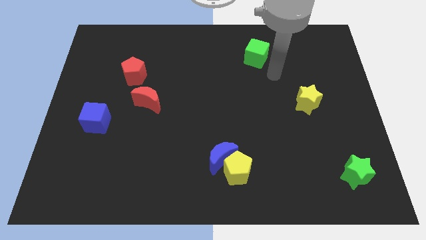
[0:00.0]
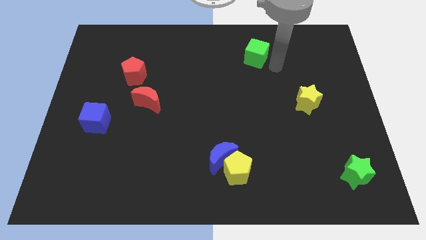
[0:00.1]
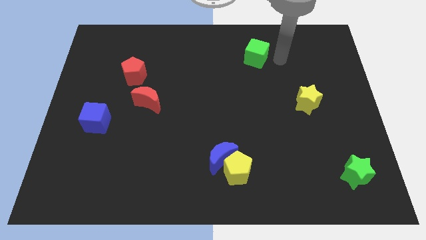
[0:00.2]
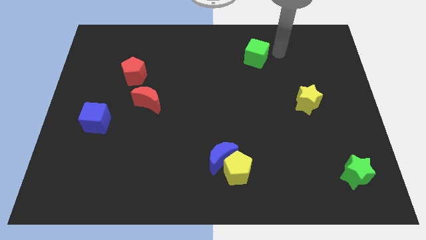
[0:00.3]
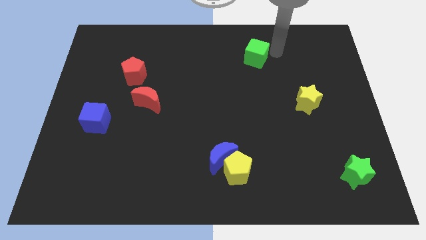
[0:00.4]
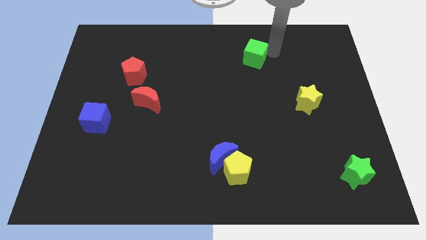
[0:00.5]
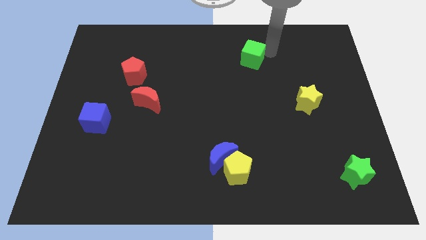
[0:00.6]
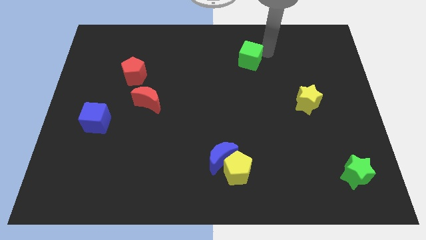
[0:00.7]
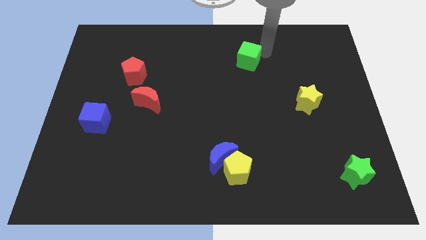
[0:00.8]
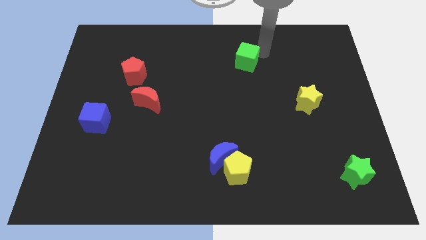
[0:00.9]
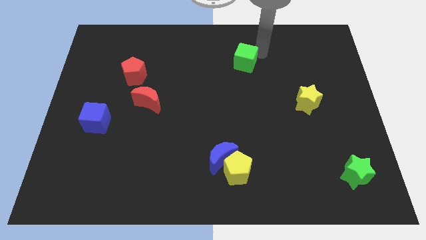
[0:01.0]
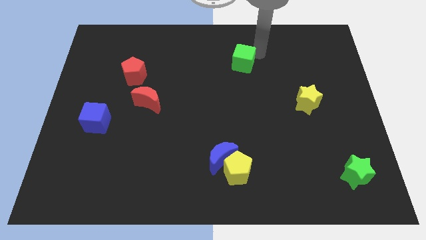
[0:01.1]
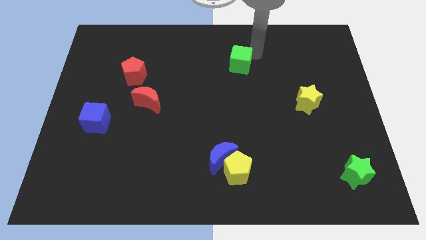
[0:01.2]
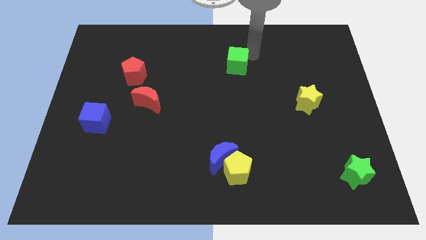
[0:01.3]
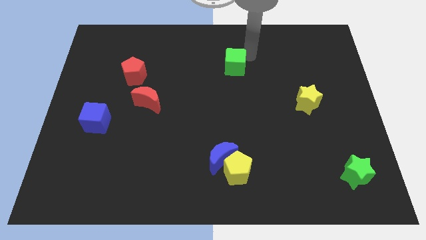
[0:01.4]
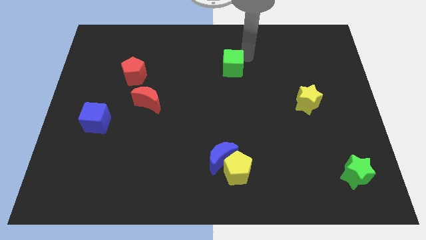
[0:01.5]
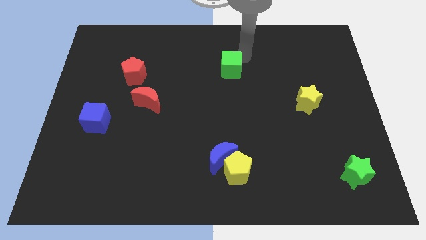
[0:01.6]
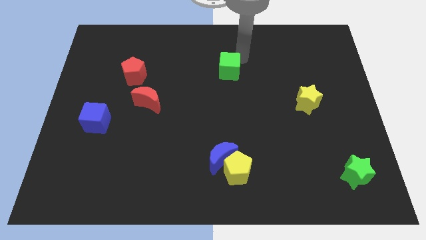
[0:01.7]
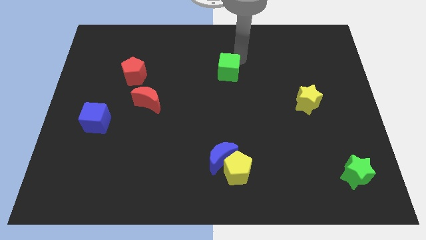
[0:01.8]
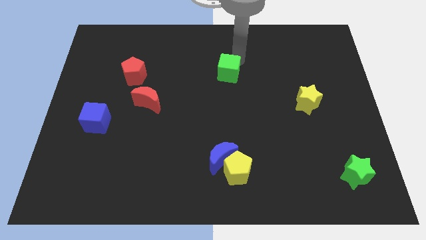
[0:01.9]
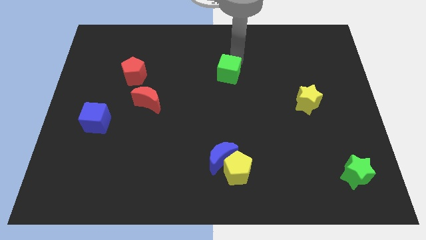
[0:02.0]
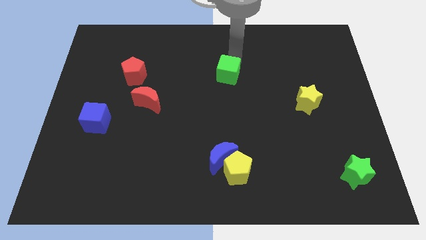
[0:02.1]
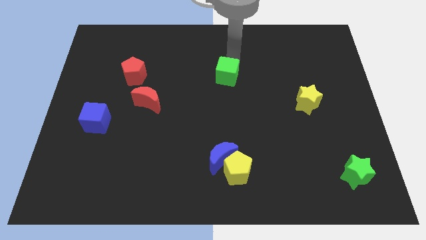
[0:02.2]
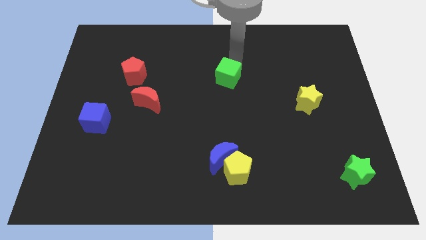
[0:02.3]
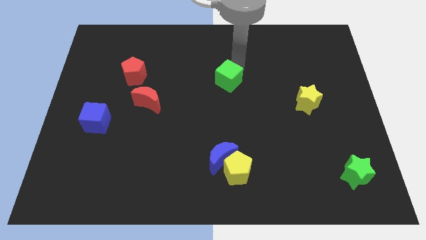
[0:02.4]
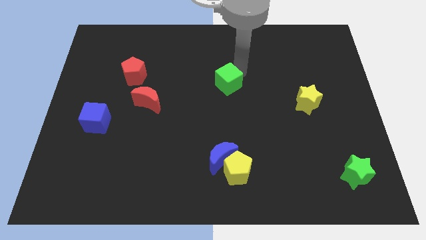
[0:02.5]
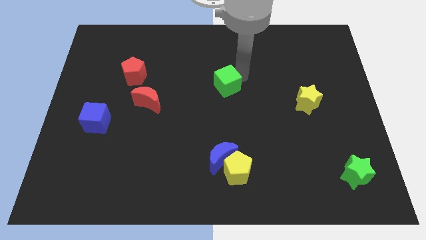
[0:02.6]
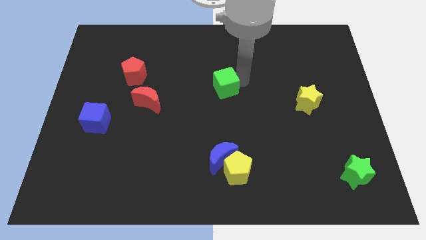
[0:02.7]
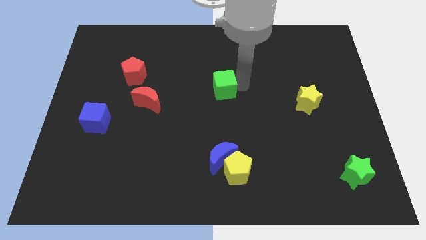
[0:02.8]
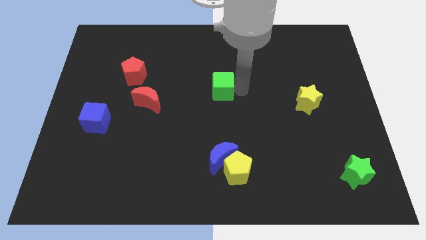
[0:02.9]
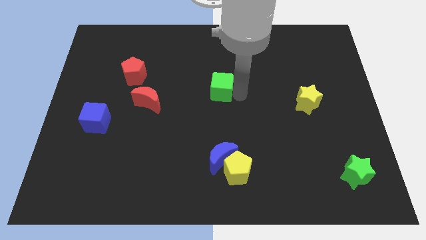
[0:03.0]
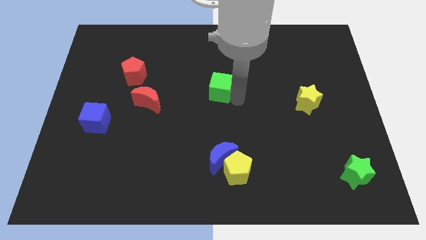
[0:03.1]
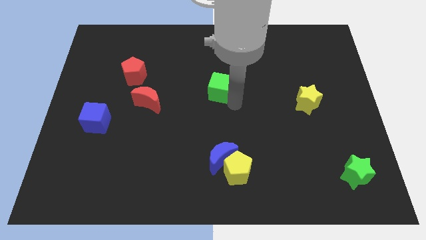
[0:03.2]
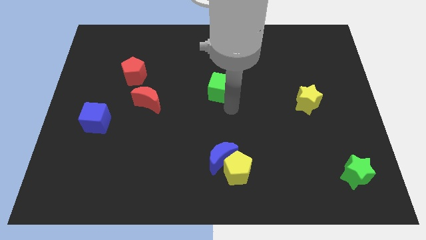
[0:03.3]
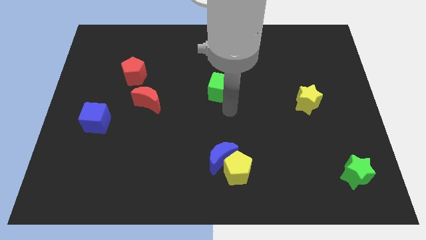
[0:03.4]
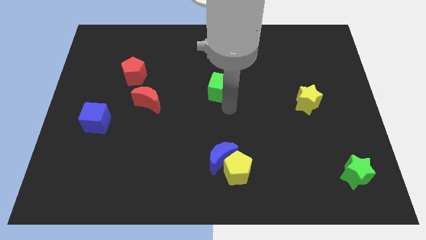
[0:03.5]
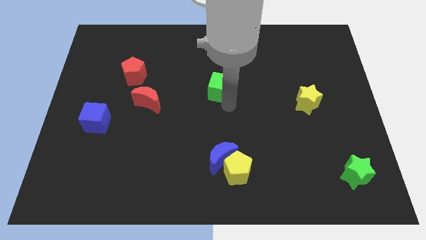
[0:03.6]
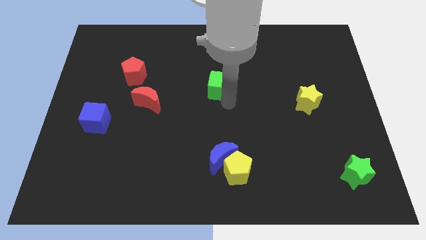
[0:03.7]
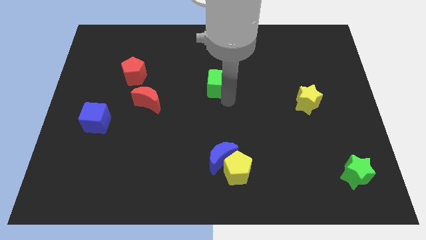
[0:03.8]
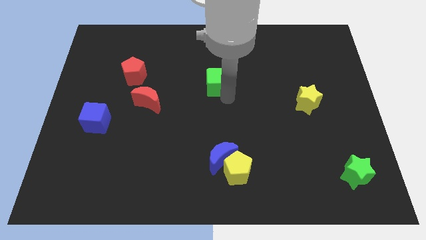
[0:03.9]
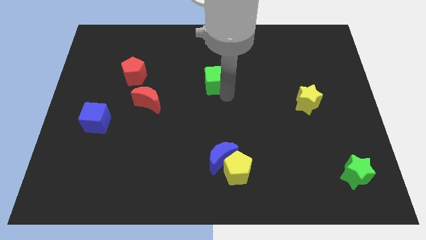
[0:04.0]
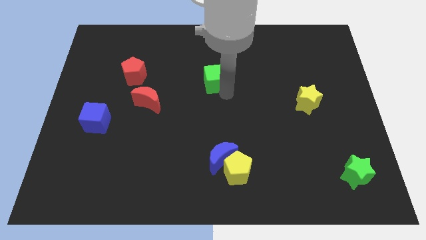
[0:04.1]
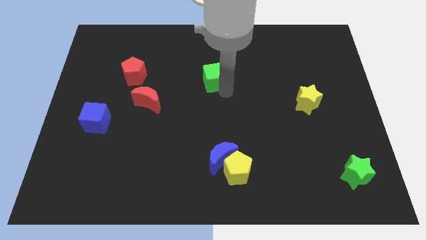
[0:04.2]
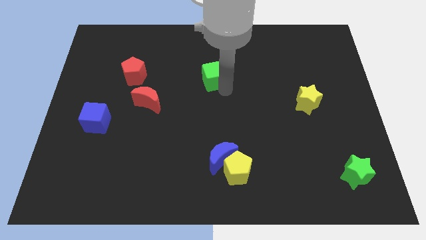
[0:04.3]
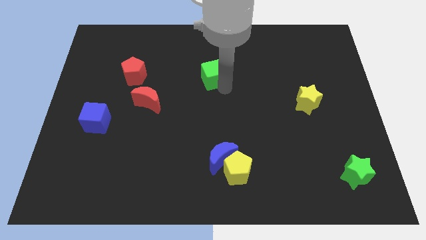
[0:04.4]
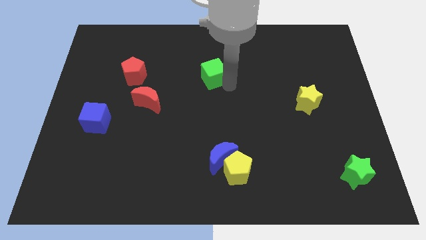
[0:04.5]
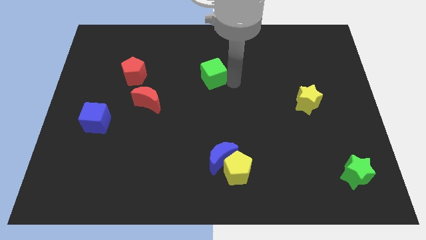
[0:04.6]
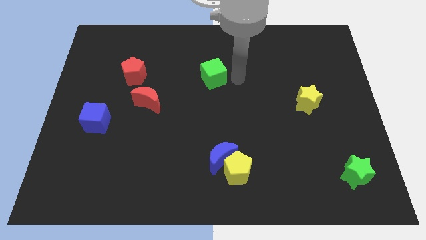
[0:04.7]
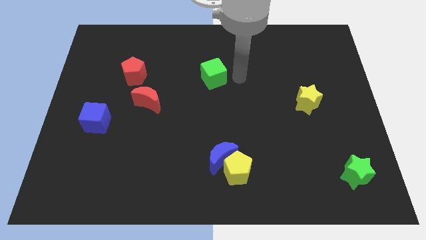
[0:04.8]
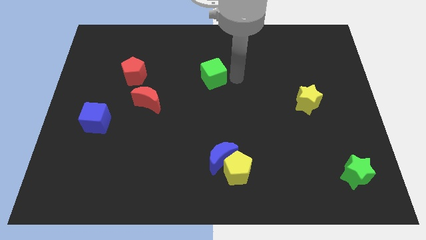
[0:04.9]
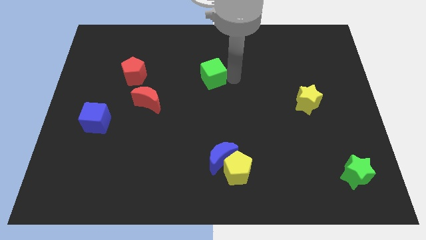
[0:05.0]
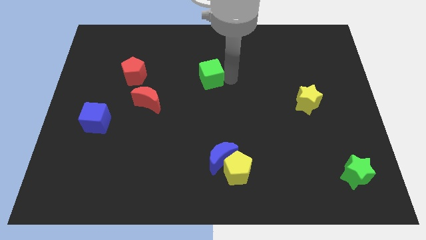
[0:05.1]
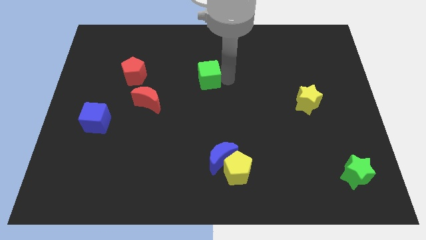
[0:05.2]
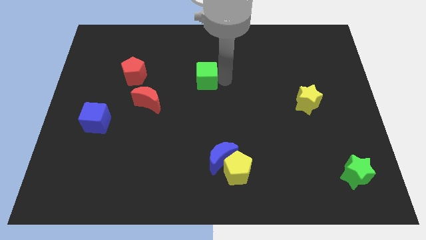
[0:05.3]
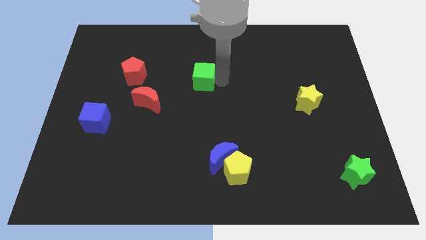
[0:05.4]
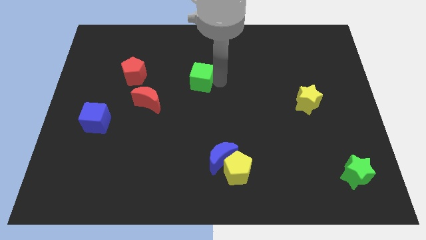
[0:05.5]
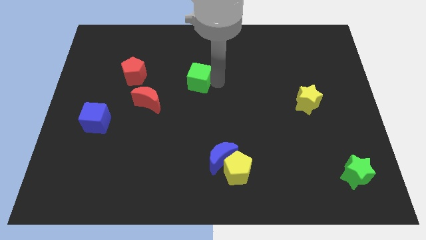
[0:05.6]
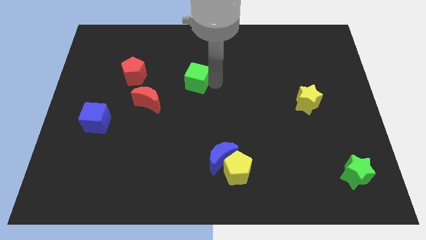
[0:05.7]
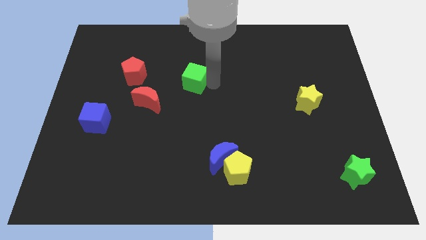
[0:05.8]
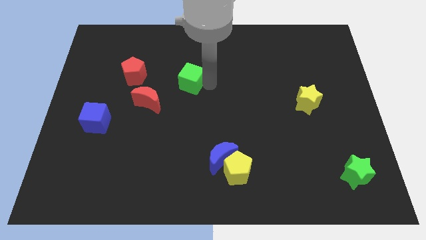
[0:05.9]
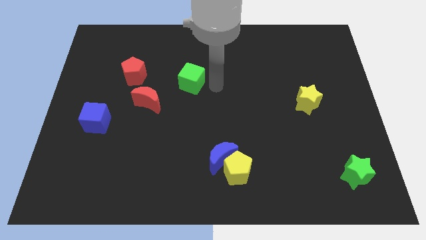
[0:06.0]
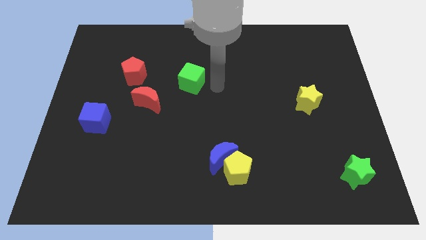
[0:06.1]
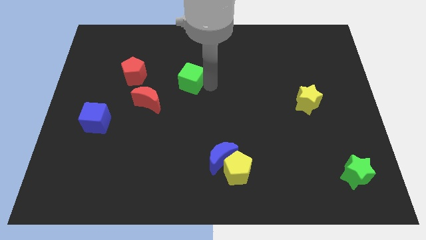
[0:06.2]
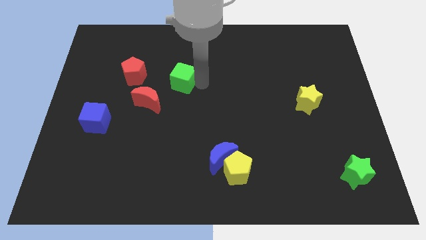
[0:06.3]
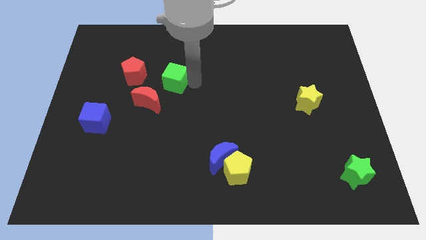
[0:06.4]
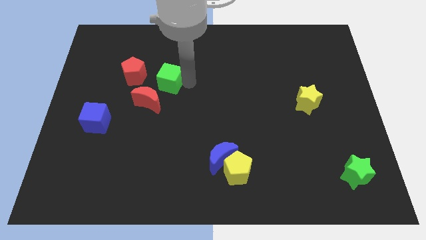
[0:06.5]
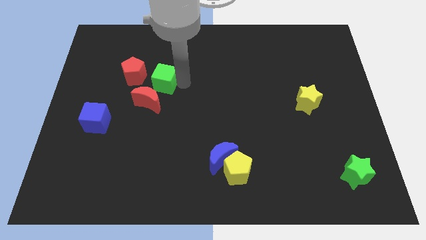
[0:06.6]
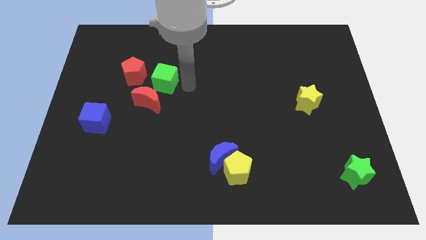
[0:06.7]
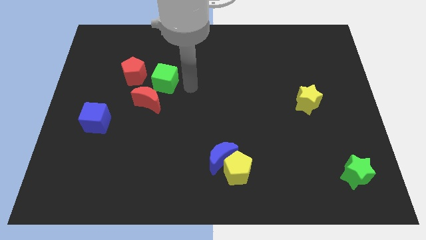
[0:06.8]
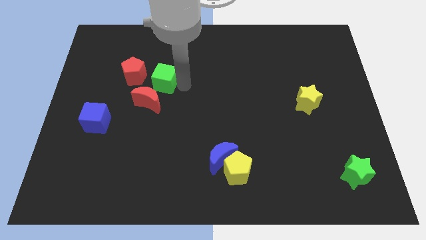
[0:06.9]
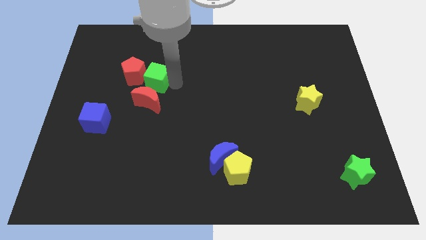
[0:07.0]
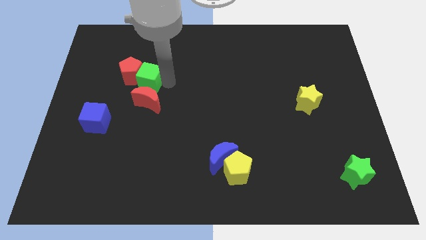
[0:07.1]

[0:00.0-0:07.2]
move the green cube towards the red pentagon

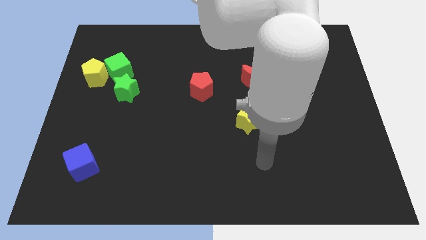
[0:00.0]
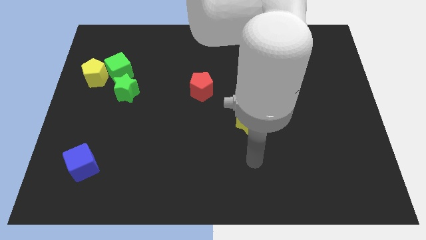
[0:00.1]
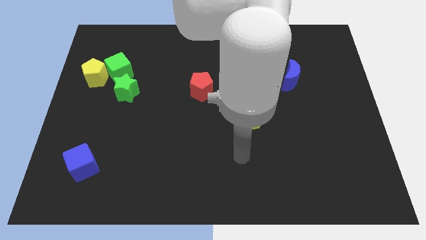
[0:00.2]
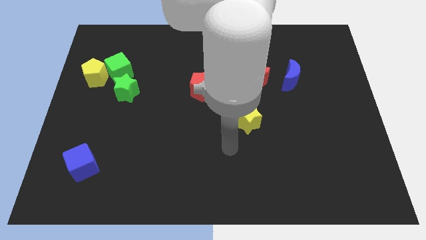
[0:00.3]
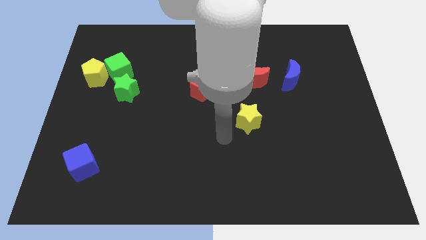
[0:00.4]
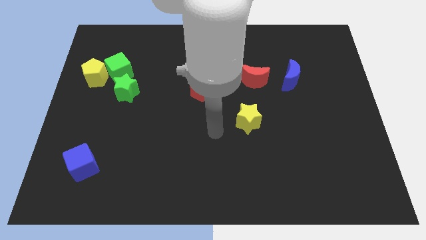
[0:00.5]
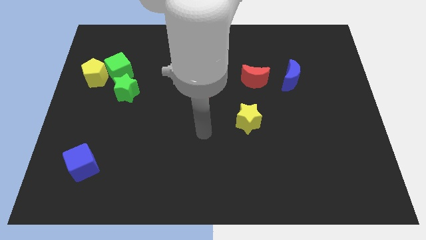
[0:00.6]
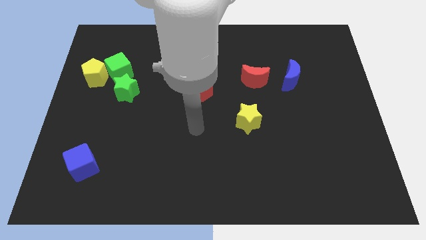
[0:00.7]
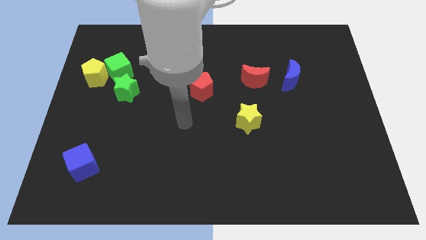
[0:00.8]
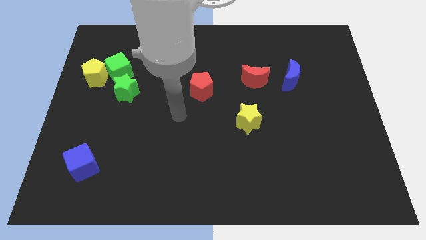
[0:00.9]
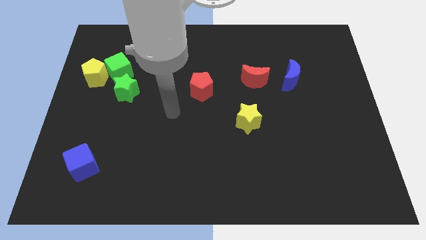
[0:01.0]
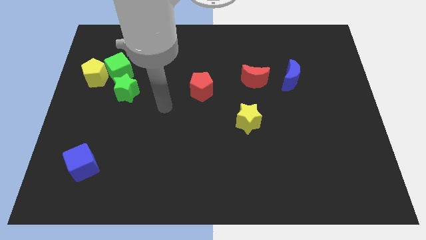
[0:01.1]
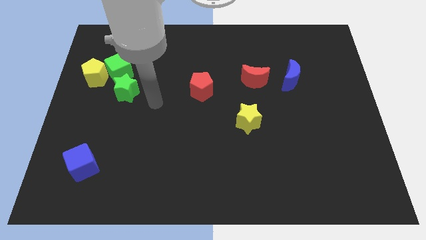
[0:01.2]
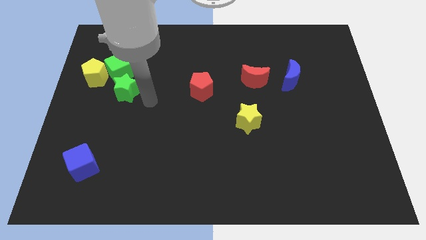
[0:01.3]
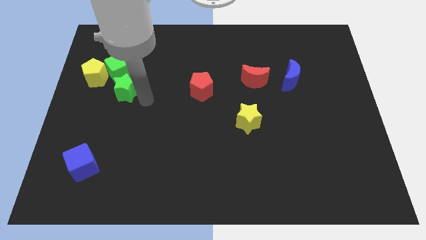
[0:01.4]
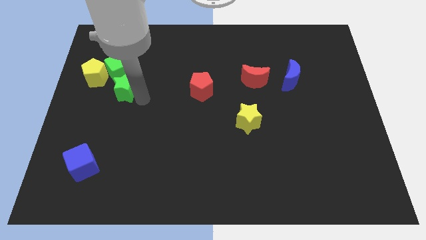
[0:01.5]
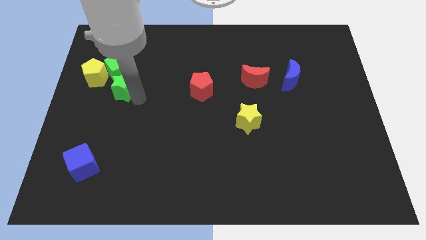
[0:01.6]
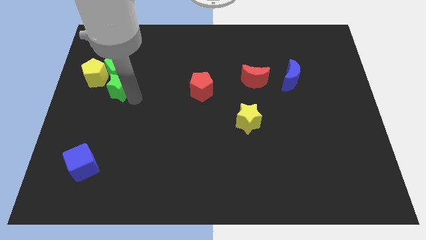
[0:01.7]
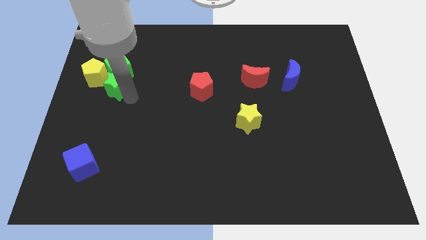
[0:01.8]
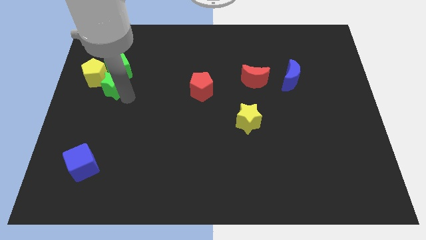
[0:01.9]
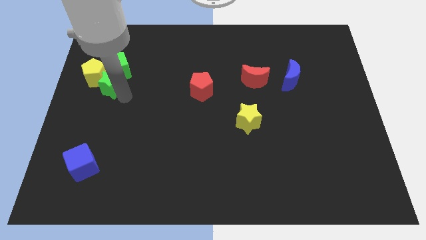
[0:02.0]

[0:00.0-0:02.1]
move the green star towards the yellow pentagon
